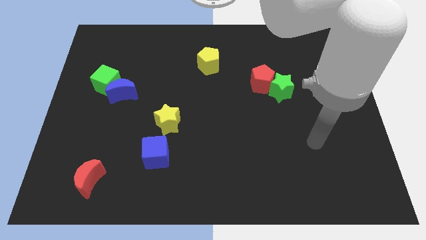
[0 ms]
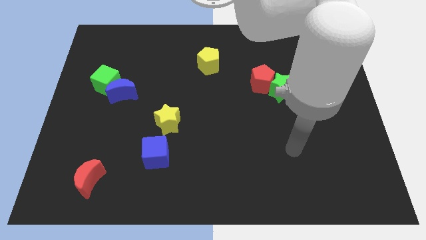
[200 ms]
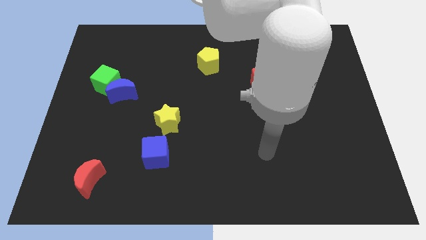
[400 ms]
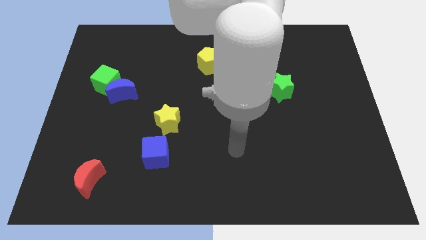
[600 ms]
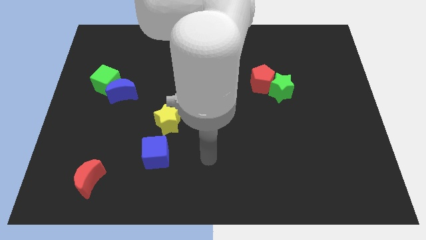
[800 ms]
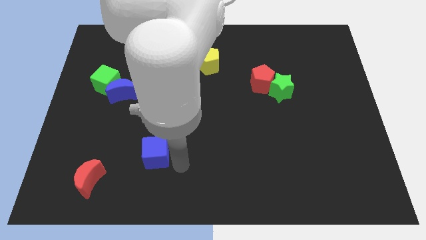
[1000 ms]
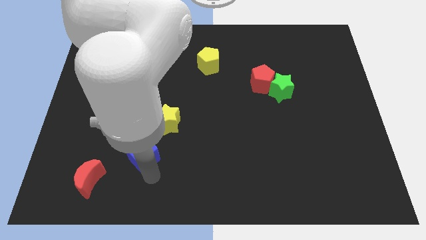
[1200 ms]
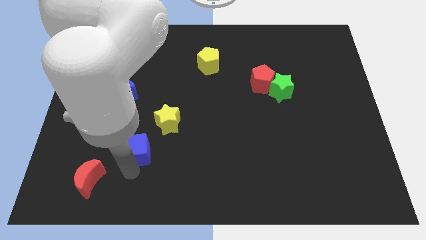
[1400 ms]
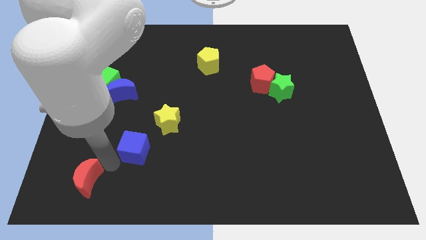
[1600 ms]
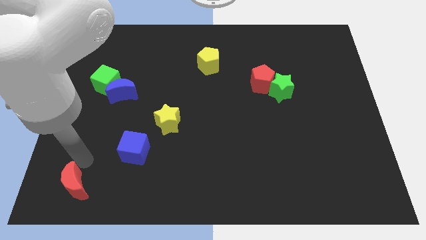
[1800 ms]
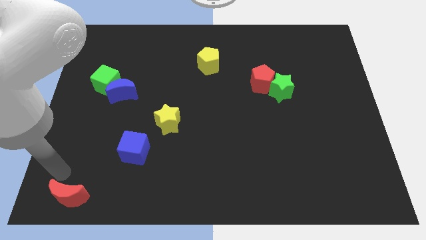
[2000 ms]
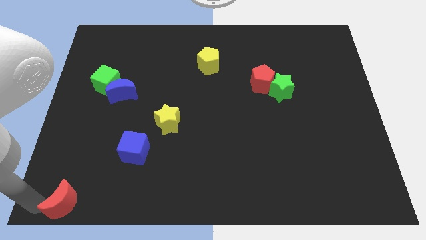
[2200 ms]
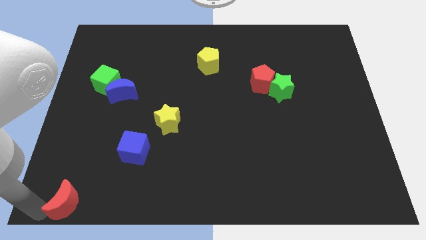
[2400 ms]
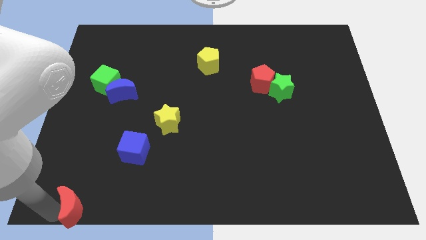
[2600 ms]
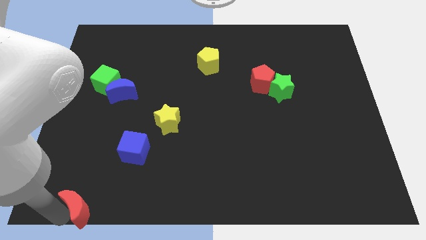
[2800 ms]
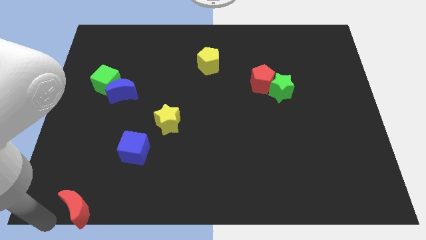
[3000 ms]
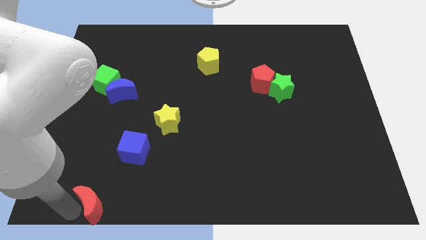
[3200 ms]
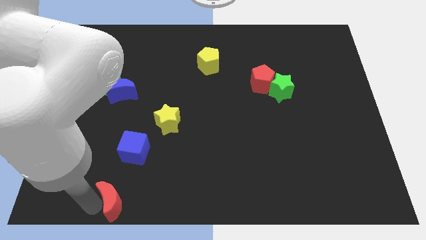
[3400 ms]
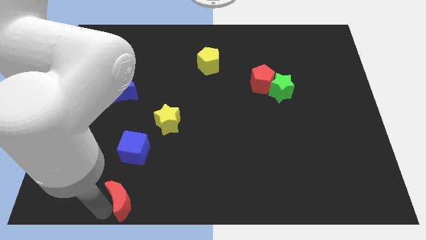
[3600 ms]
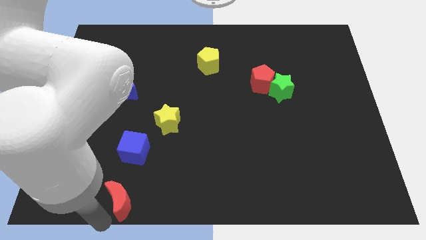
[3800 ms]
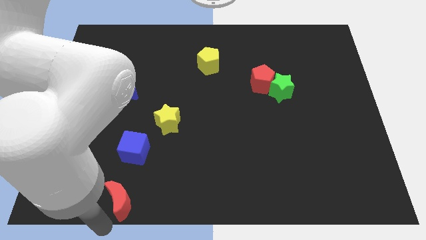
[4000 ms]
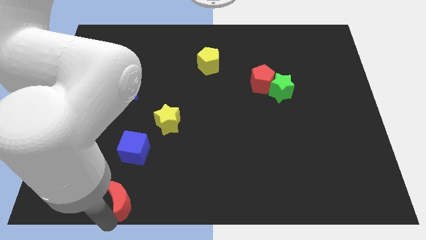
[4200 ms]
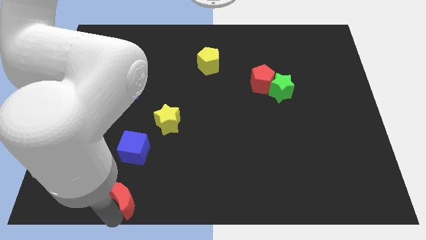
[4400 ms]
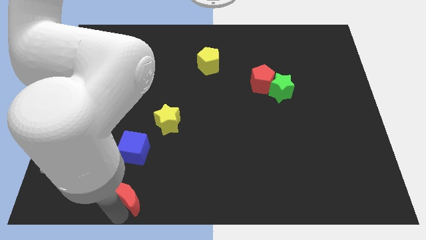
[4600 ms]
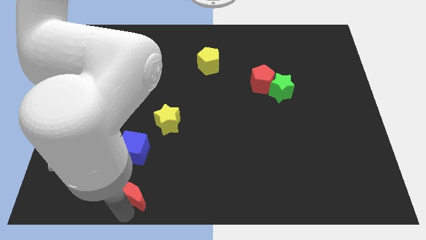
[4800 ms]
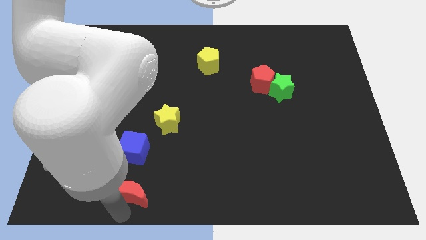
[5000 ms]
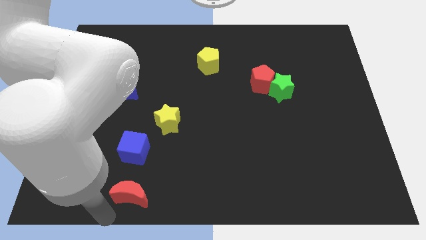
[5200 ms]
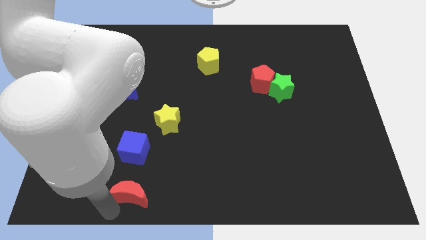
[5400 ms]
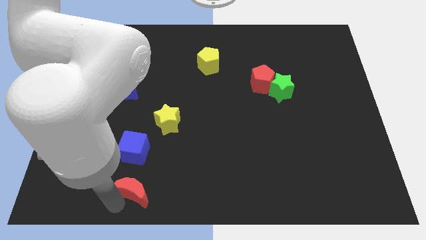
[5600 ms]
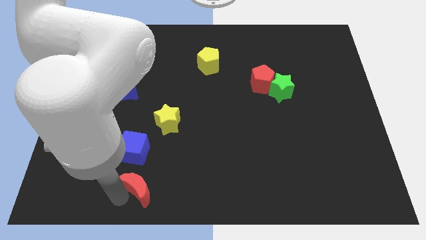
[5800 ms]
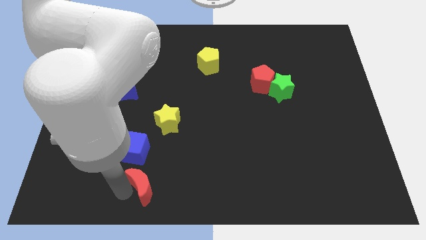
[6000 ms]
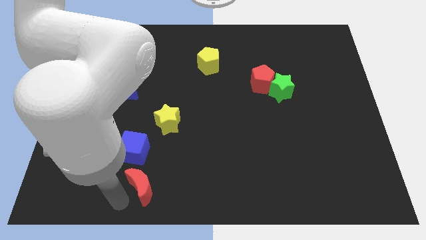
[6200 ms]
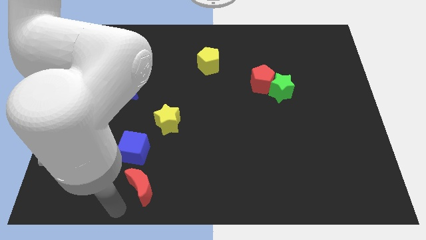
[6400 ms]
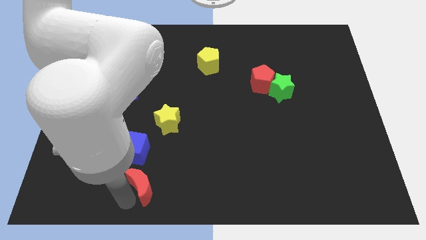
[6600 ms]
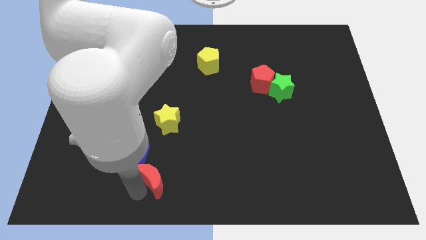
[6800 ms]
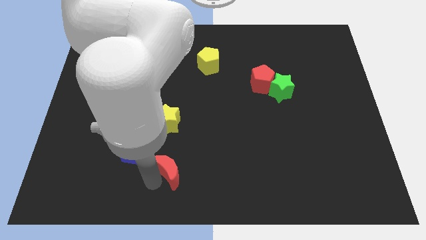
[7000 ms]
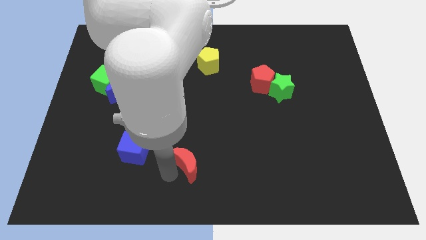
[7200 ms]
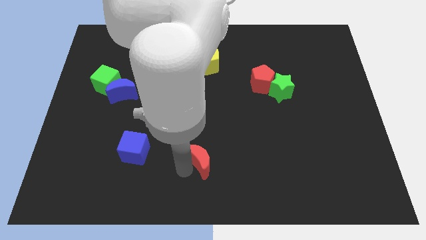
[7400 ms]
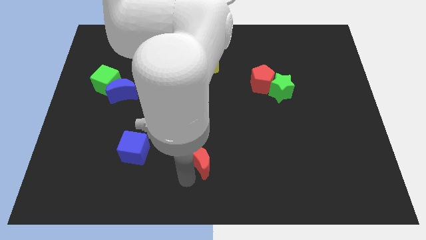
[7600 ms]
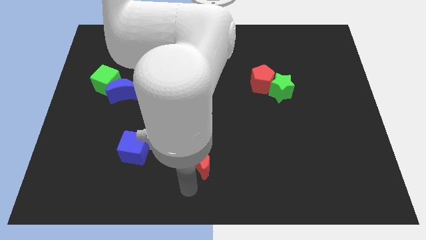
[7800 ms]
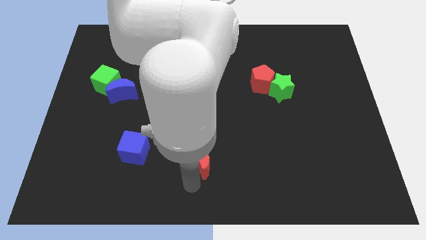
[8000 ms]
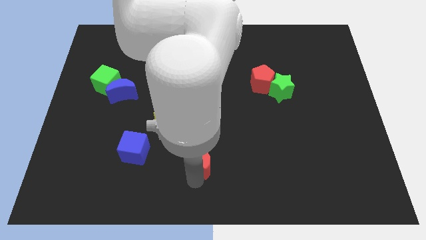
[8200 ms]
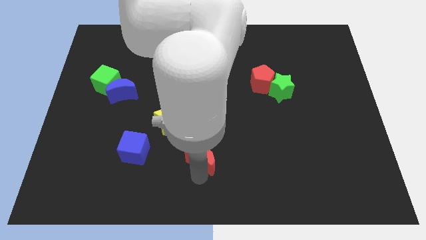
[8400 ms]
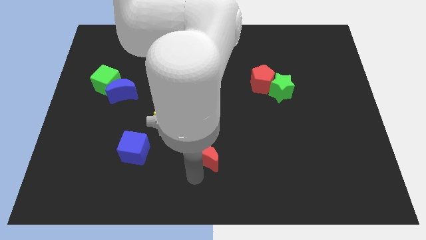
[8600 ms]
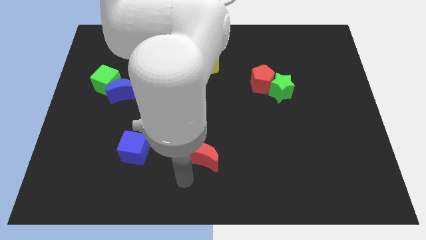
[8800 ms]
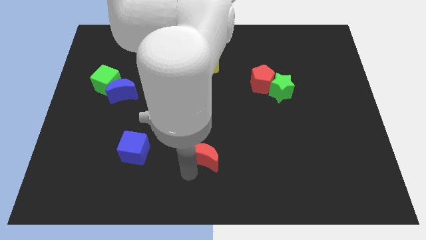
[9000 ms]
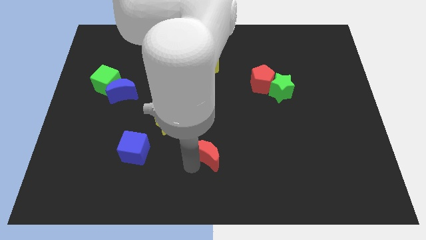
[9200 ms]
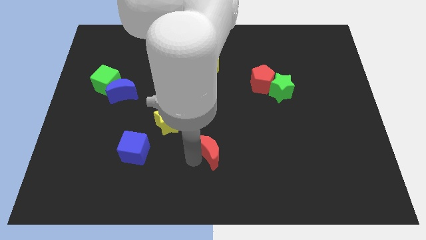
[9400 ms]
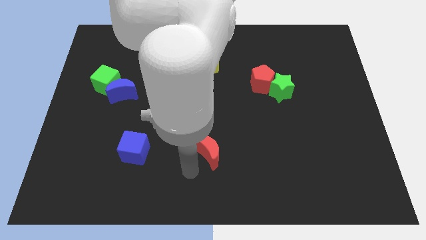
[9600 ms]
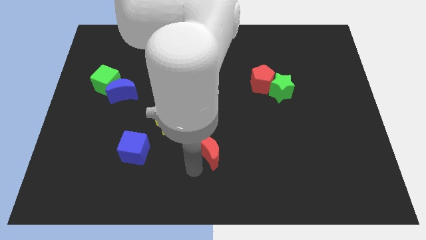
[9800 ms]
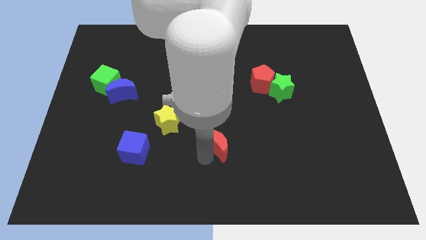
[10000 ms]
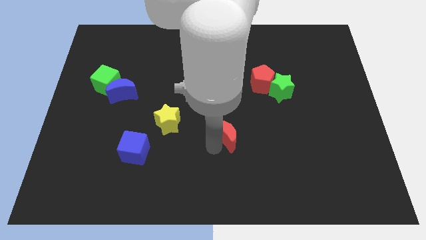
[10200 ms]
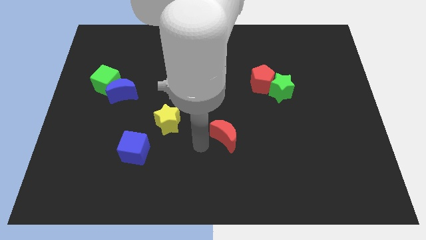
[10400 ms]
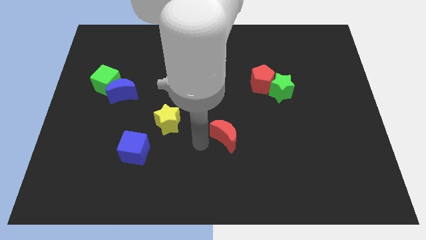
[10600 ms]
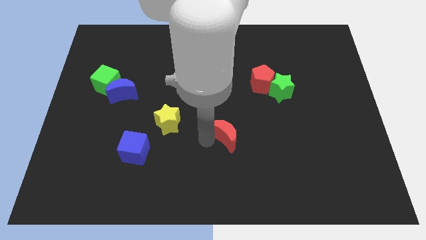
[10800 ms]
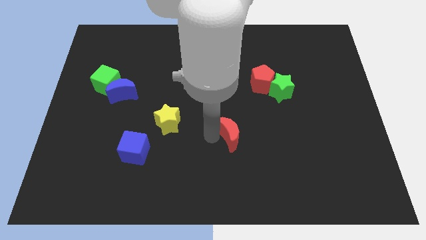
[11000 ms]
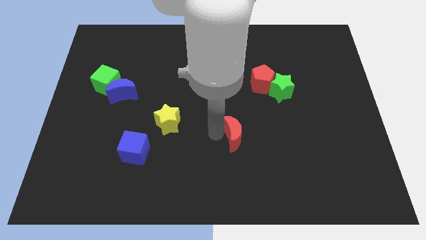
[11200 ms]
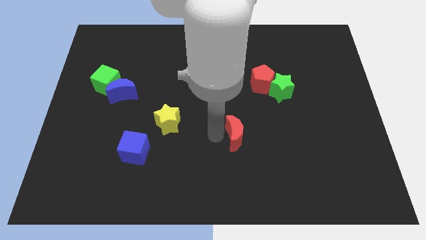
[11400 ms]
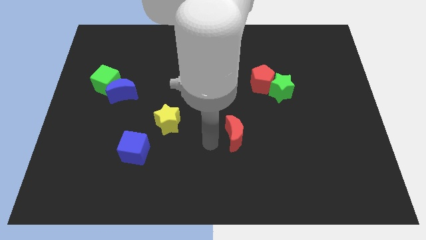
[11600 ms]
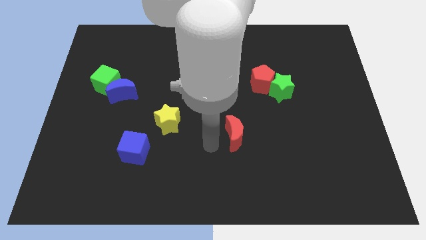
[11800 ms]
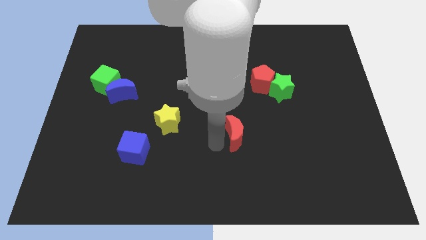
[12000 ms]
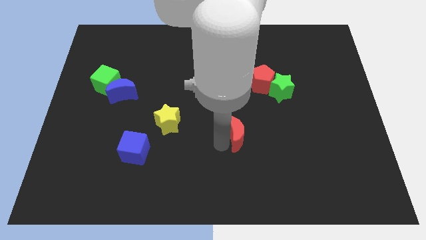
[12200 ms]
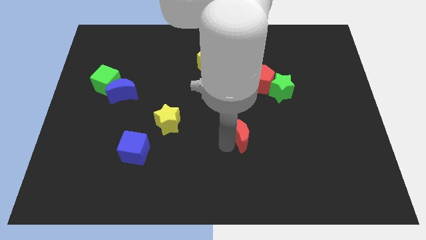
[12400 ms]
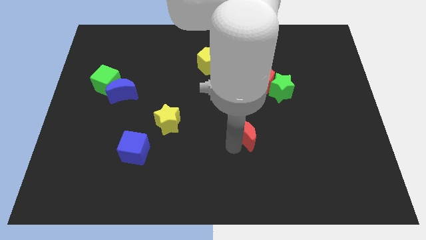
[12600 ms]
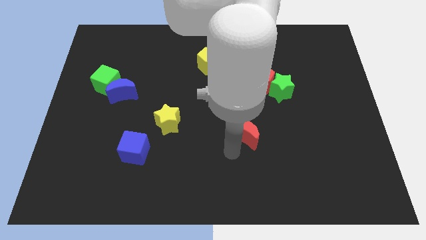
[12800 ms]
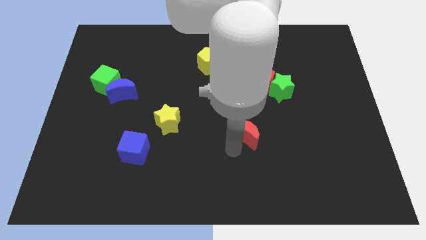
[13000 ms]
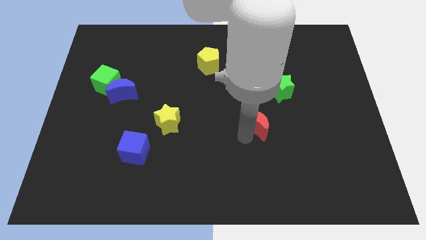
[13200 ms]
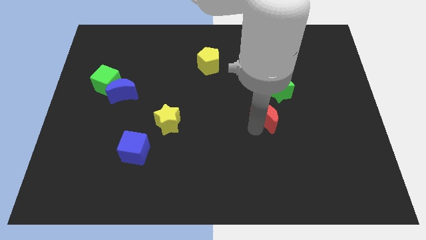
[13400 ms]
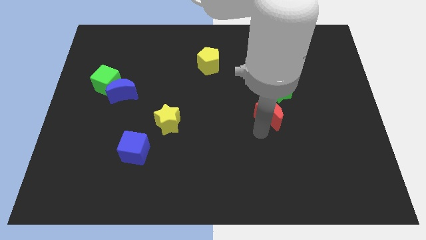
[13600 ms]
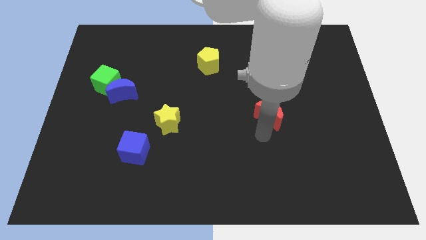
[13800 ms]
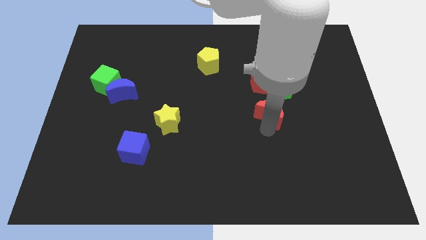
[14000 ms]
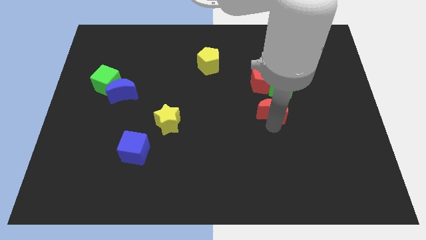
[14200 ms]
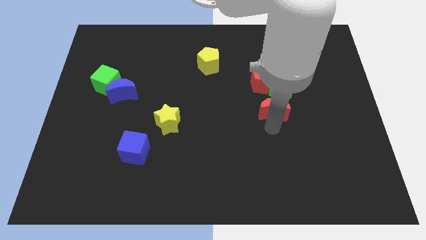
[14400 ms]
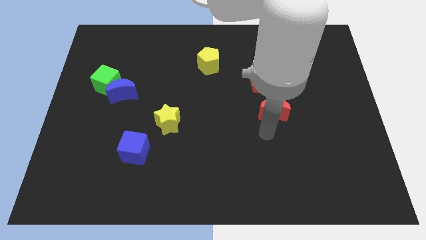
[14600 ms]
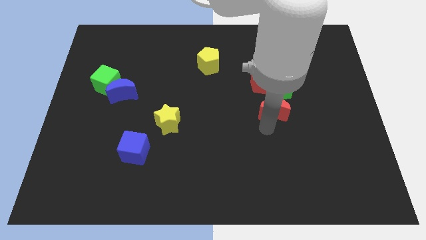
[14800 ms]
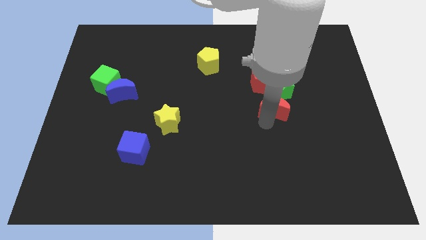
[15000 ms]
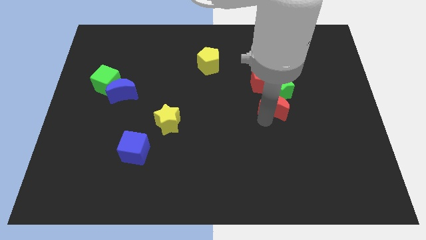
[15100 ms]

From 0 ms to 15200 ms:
slide the red moon towards the green star
